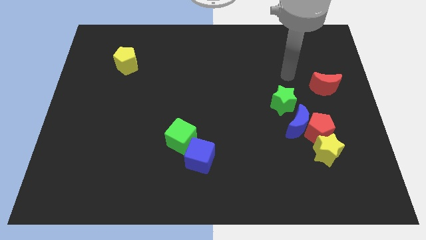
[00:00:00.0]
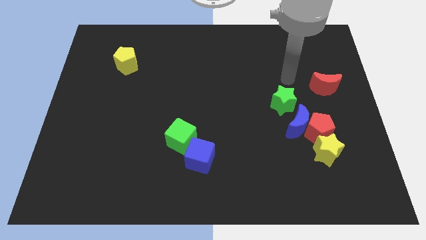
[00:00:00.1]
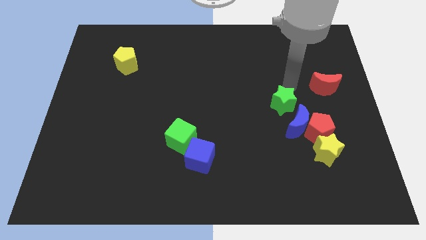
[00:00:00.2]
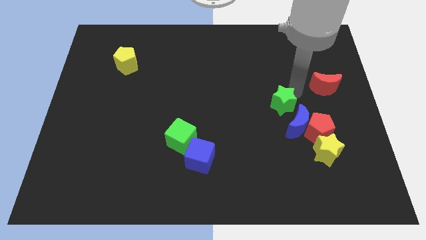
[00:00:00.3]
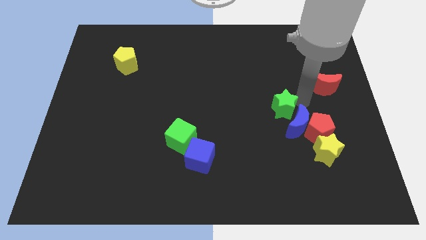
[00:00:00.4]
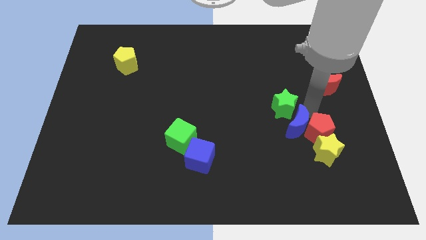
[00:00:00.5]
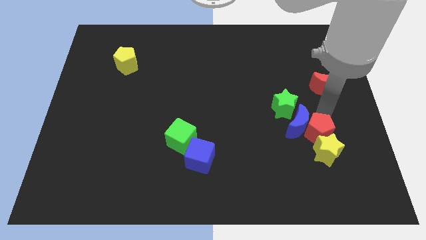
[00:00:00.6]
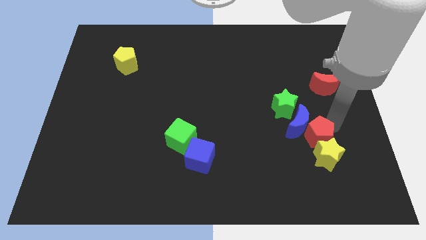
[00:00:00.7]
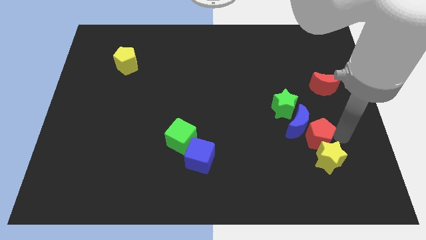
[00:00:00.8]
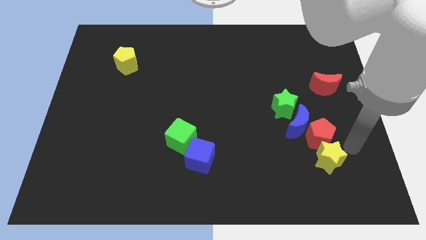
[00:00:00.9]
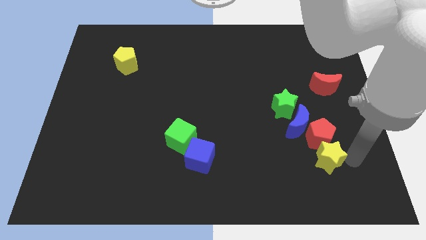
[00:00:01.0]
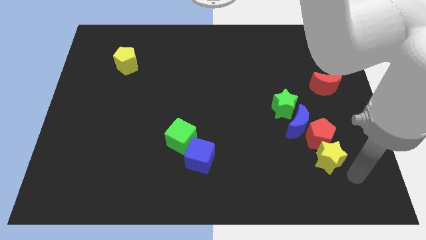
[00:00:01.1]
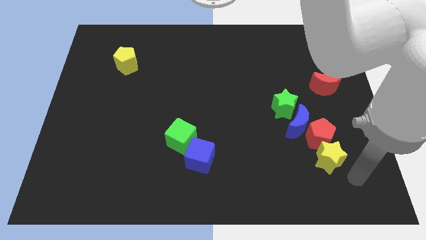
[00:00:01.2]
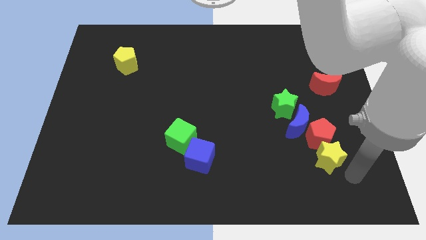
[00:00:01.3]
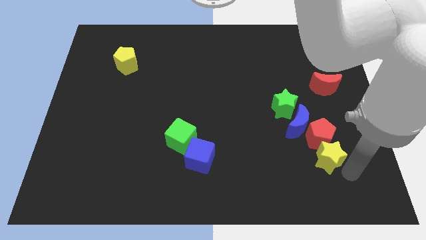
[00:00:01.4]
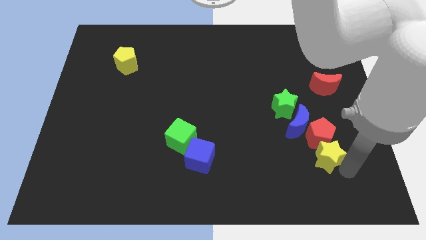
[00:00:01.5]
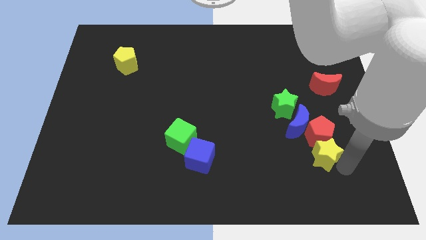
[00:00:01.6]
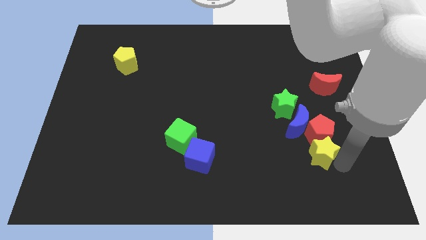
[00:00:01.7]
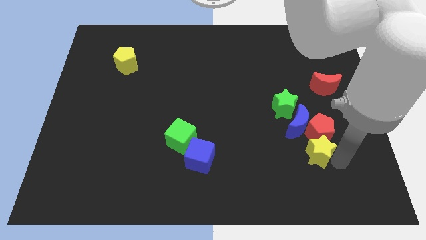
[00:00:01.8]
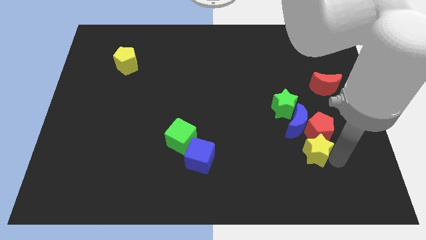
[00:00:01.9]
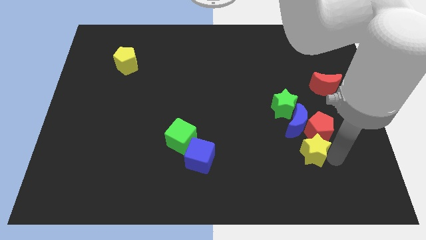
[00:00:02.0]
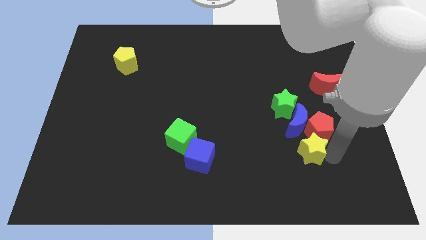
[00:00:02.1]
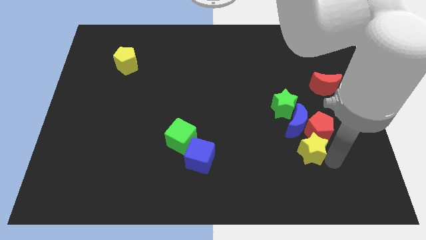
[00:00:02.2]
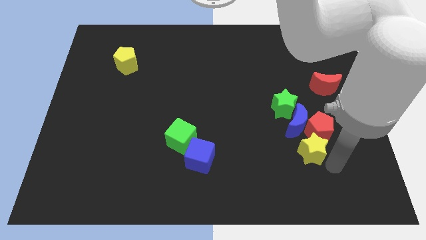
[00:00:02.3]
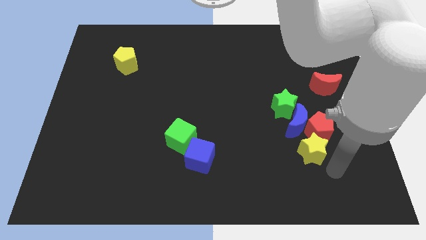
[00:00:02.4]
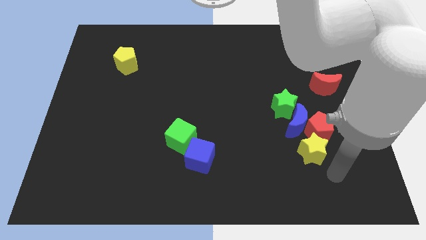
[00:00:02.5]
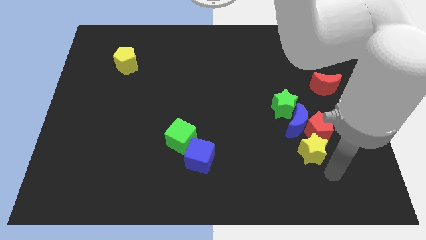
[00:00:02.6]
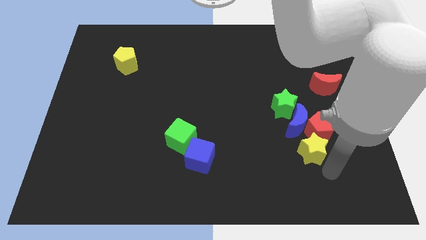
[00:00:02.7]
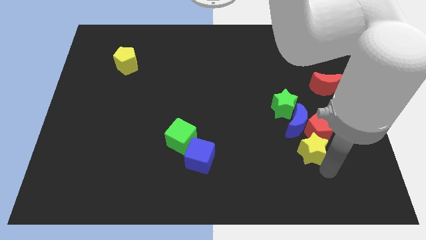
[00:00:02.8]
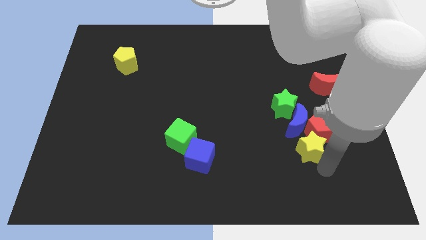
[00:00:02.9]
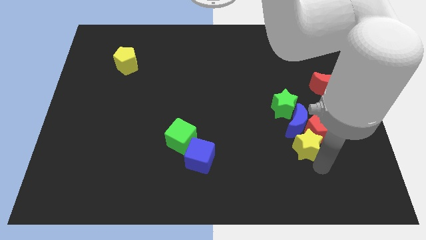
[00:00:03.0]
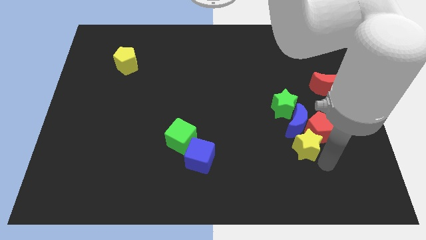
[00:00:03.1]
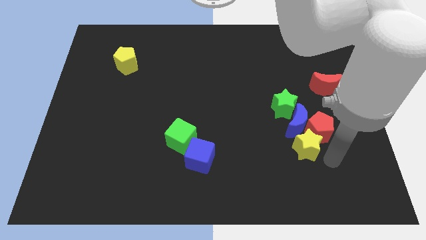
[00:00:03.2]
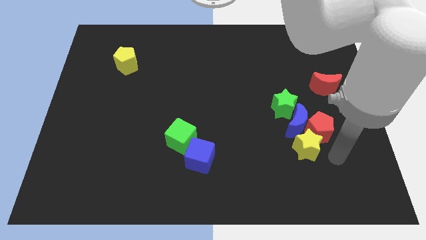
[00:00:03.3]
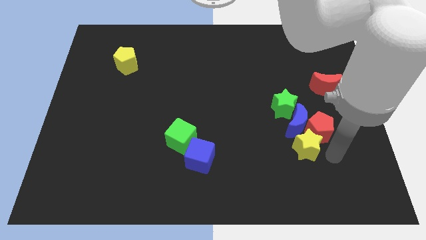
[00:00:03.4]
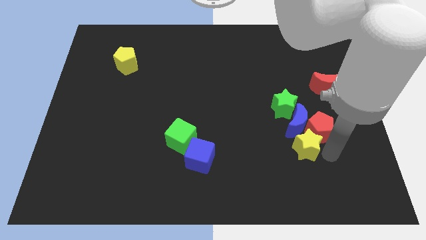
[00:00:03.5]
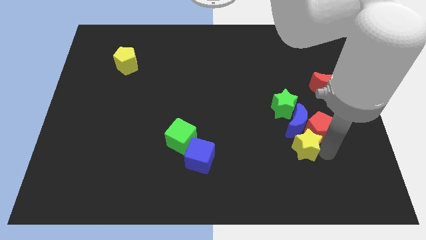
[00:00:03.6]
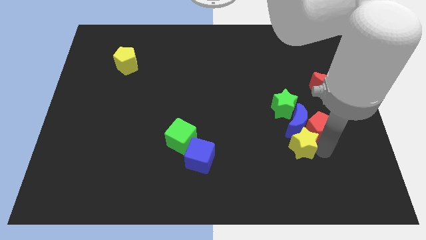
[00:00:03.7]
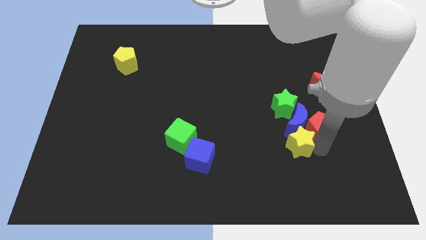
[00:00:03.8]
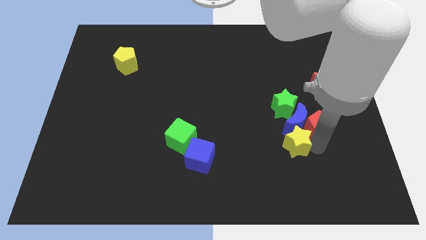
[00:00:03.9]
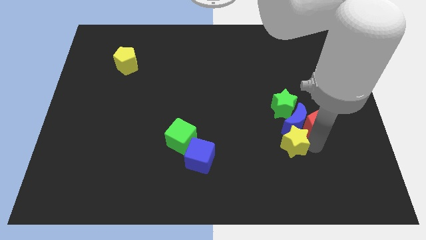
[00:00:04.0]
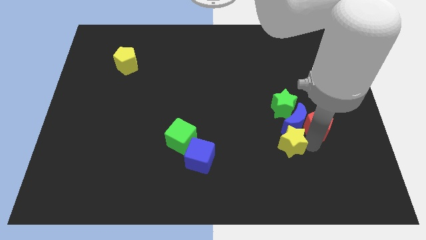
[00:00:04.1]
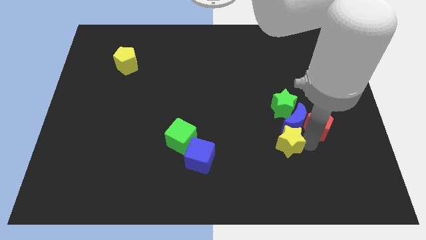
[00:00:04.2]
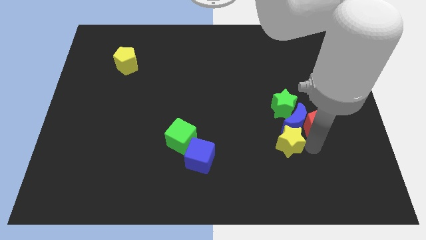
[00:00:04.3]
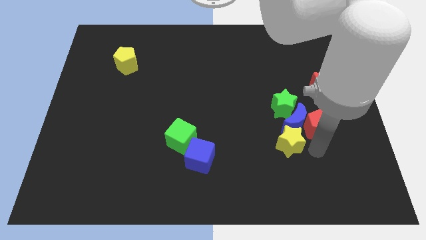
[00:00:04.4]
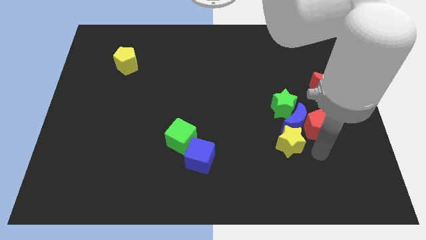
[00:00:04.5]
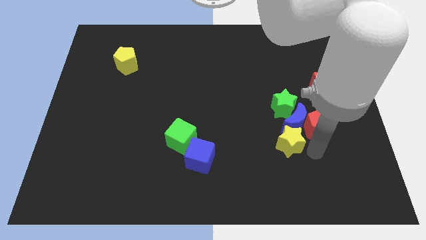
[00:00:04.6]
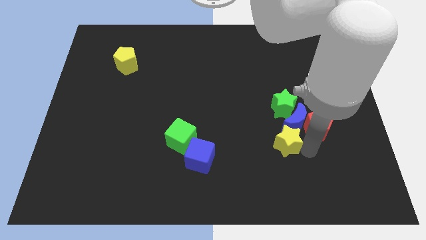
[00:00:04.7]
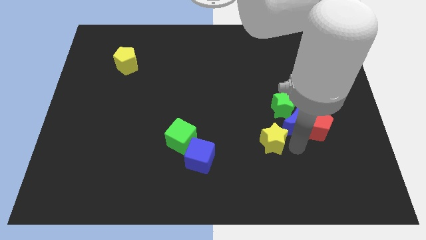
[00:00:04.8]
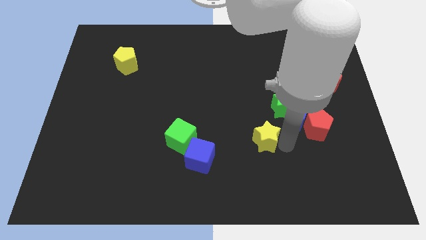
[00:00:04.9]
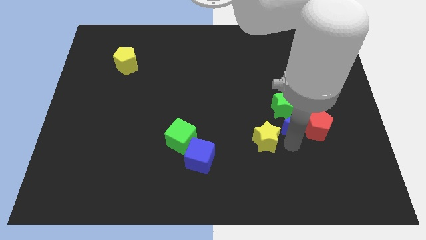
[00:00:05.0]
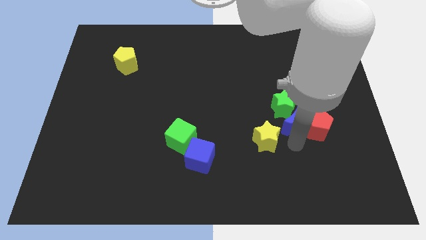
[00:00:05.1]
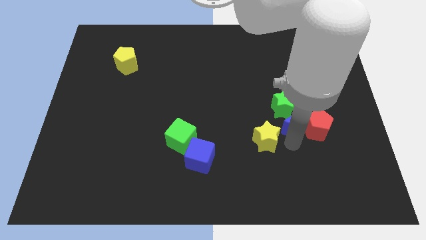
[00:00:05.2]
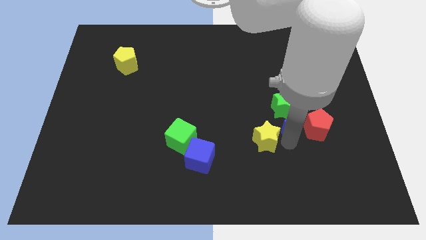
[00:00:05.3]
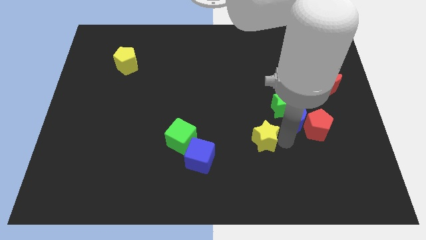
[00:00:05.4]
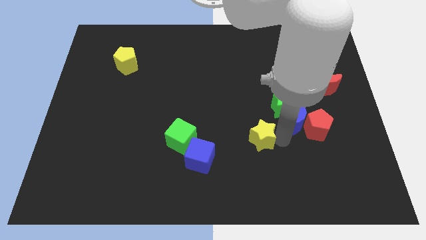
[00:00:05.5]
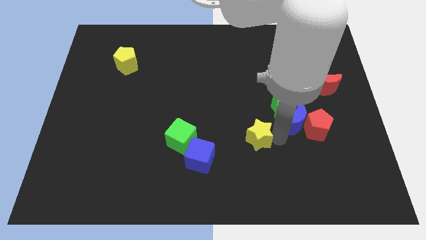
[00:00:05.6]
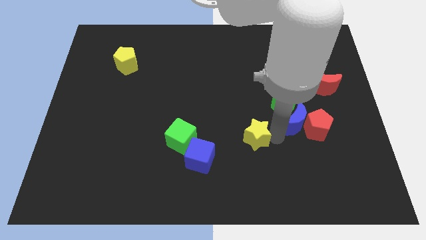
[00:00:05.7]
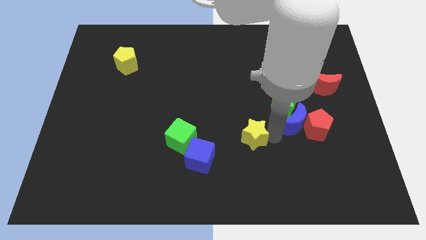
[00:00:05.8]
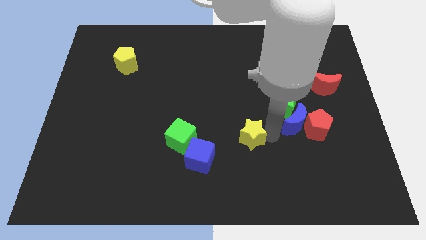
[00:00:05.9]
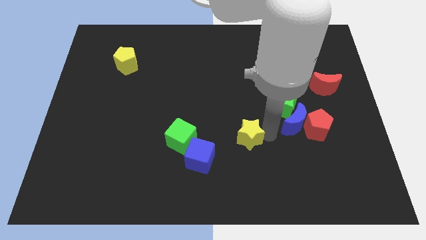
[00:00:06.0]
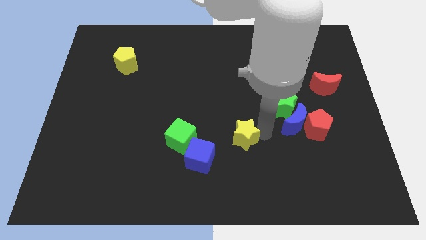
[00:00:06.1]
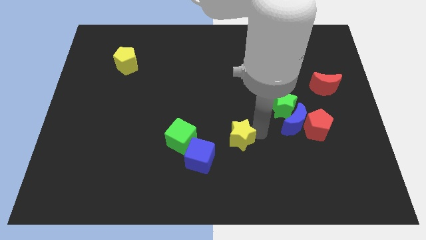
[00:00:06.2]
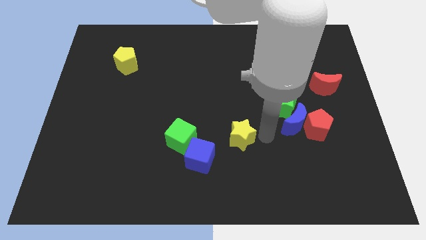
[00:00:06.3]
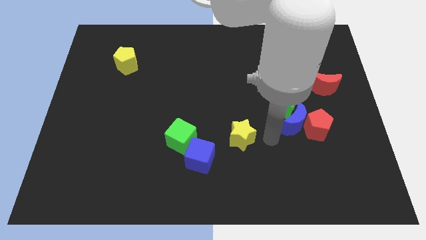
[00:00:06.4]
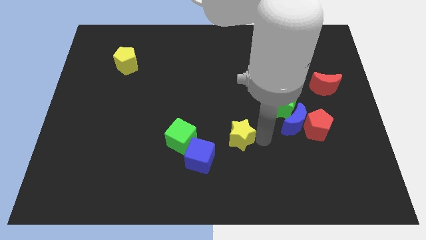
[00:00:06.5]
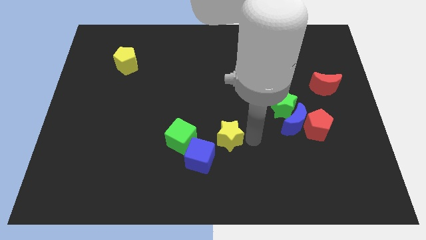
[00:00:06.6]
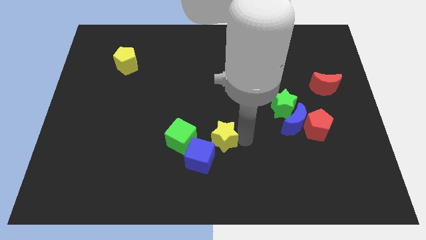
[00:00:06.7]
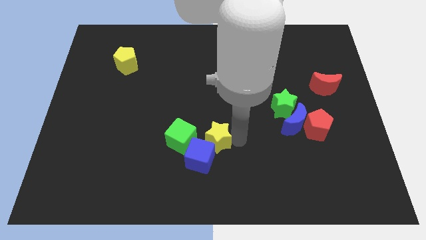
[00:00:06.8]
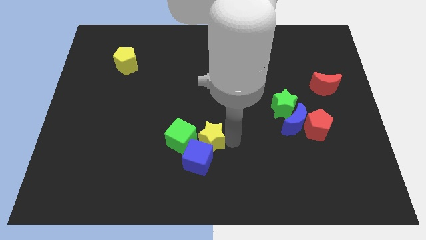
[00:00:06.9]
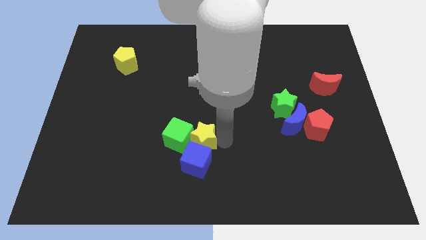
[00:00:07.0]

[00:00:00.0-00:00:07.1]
push the yellow star to the green cube
